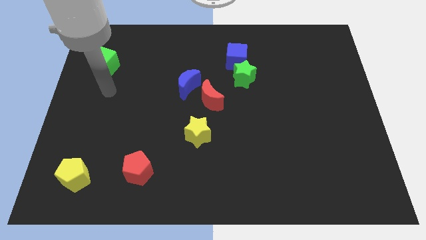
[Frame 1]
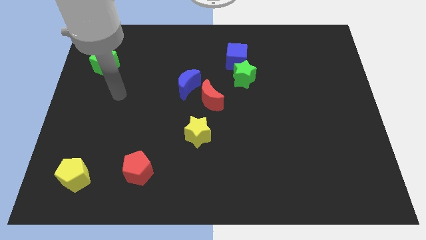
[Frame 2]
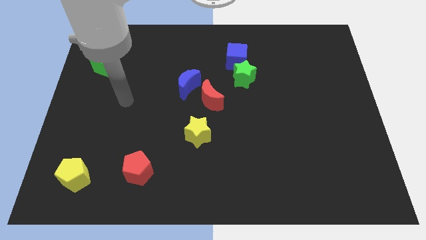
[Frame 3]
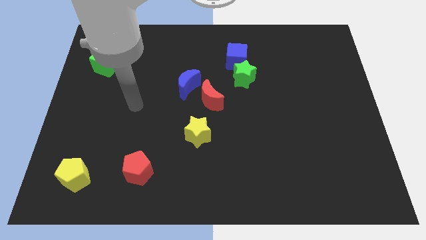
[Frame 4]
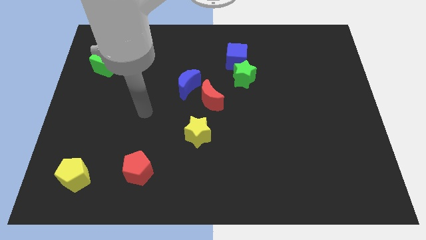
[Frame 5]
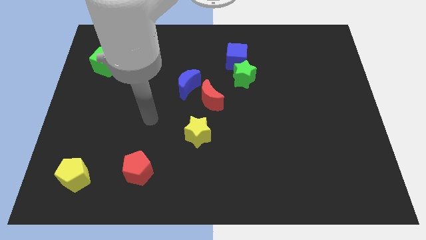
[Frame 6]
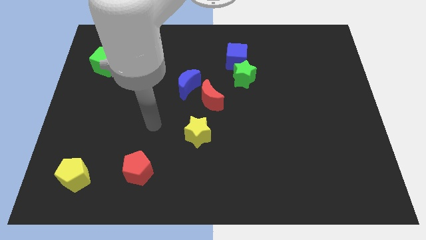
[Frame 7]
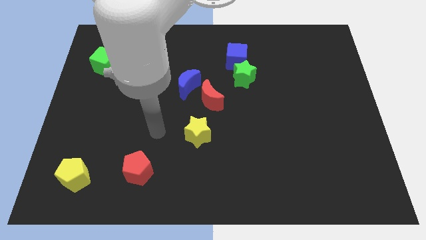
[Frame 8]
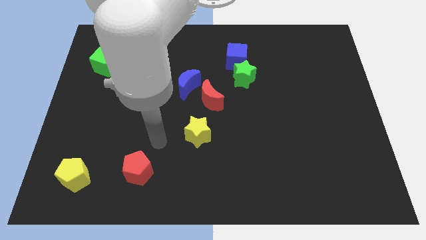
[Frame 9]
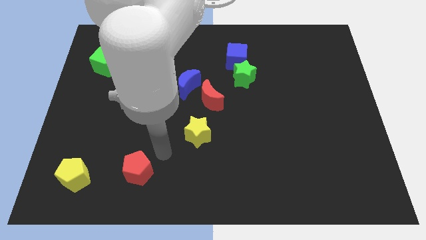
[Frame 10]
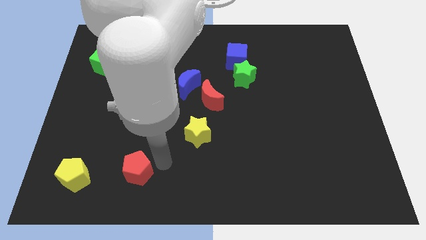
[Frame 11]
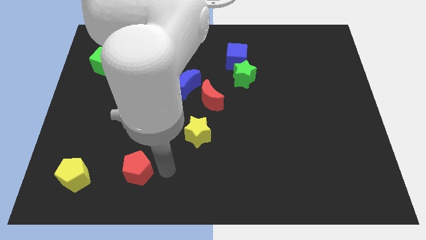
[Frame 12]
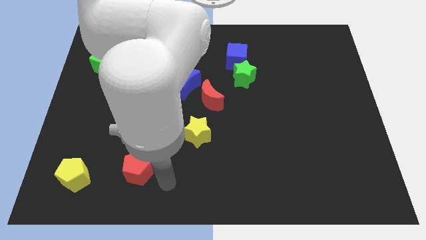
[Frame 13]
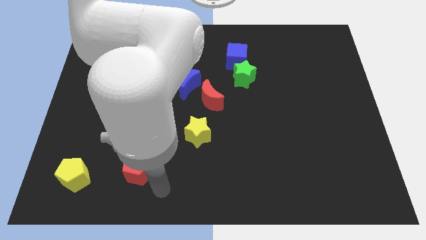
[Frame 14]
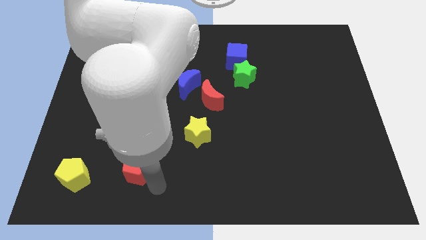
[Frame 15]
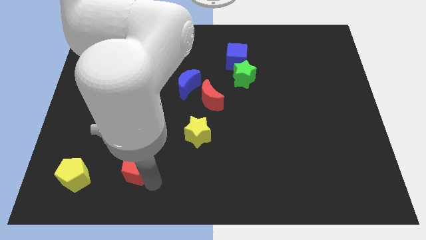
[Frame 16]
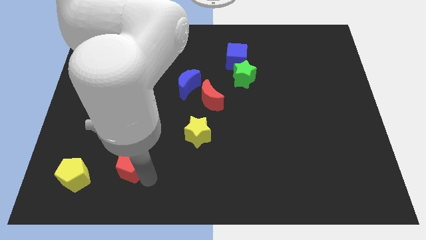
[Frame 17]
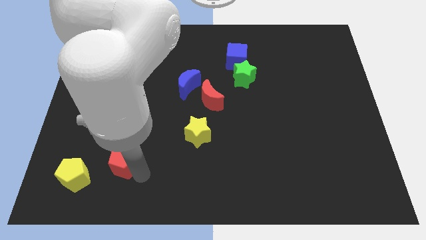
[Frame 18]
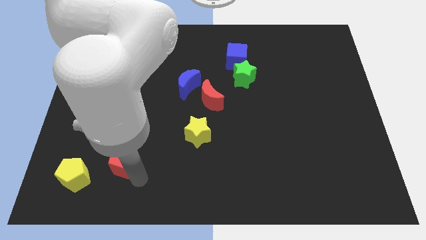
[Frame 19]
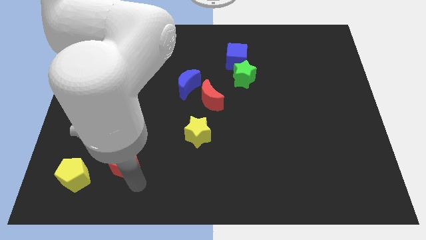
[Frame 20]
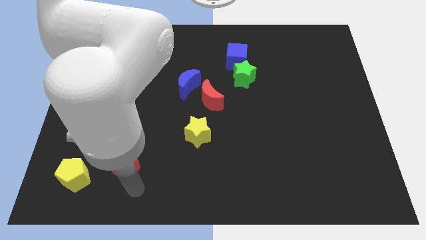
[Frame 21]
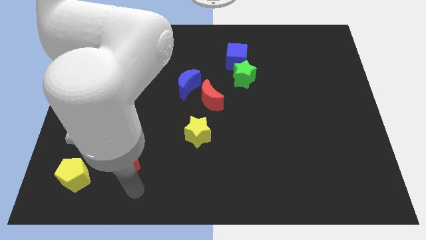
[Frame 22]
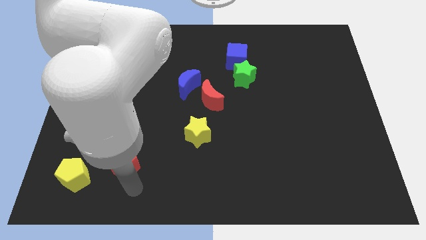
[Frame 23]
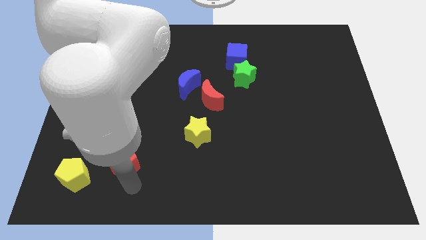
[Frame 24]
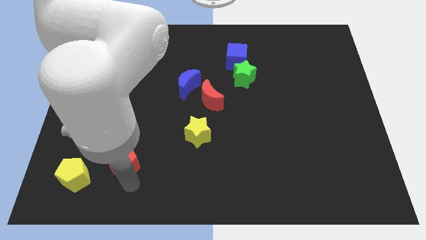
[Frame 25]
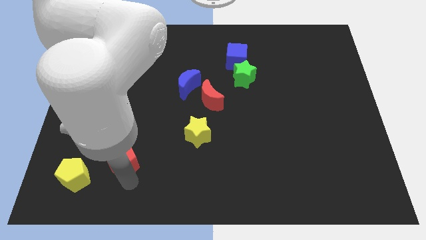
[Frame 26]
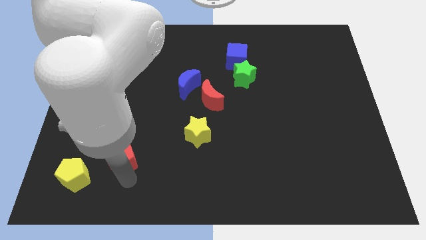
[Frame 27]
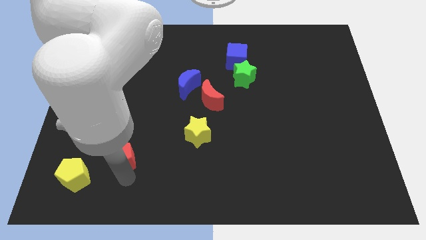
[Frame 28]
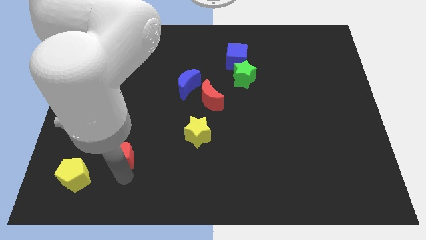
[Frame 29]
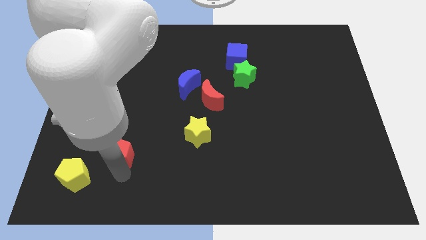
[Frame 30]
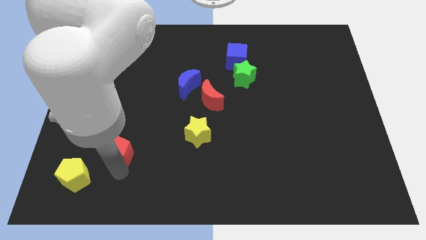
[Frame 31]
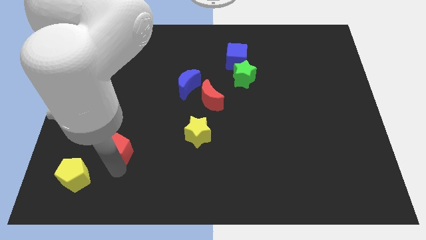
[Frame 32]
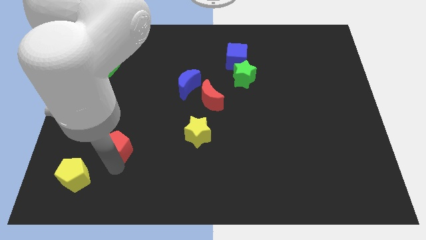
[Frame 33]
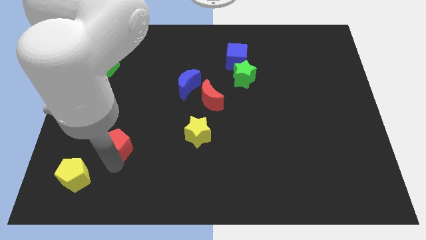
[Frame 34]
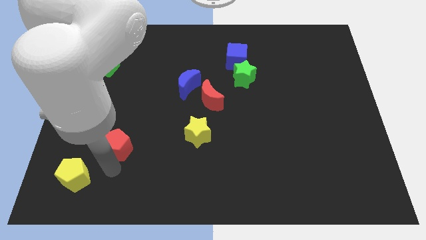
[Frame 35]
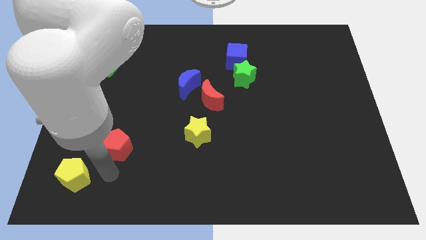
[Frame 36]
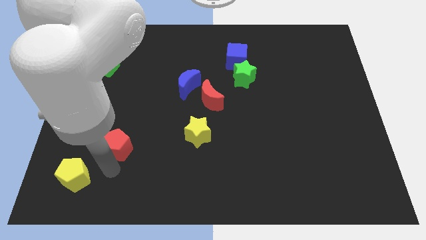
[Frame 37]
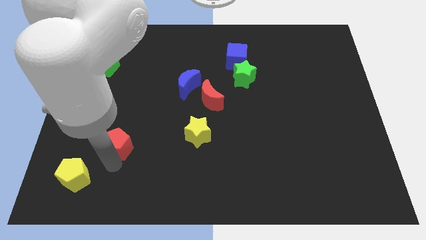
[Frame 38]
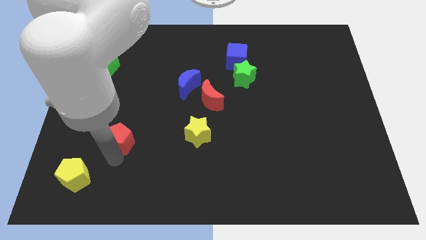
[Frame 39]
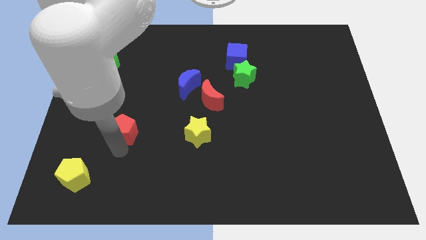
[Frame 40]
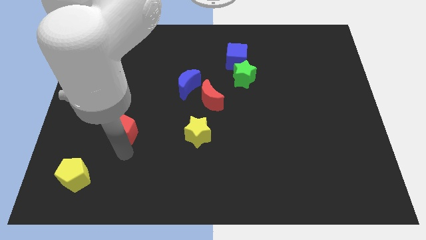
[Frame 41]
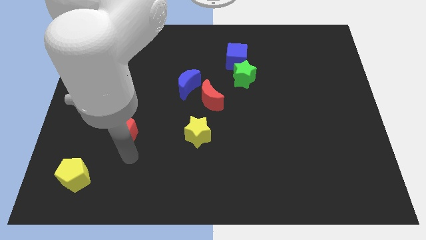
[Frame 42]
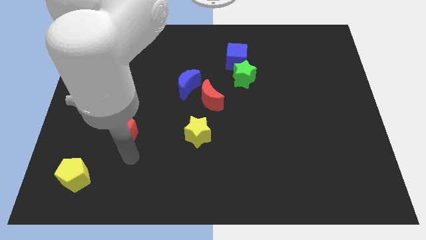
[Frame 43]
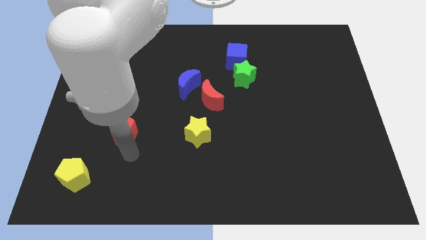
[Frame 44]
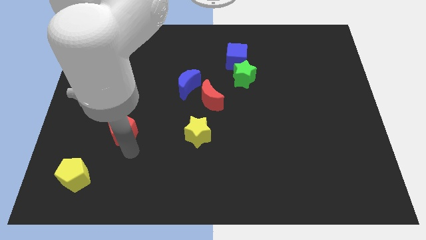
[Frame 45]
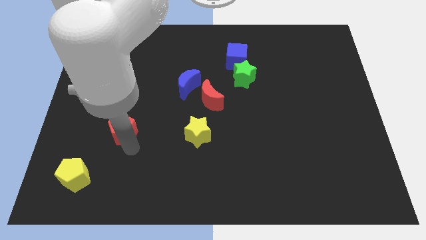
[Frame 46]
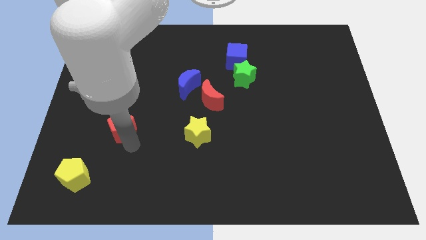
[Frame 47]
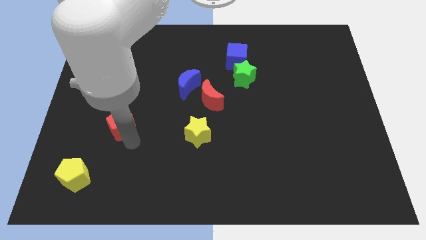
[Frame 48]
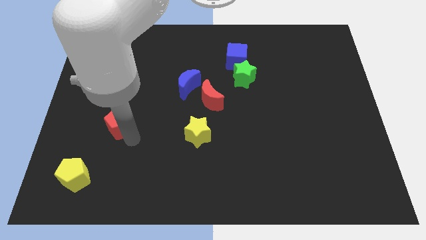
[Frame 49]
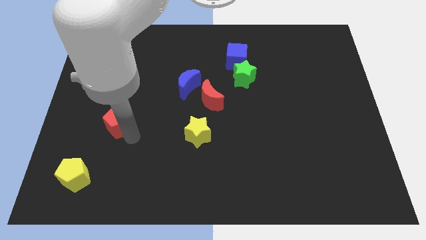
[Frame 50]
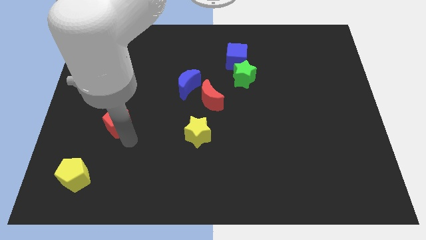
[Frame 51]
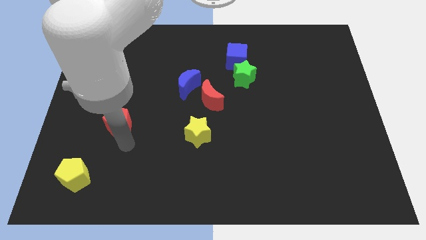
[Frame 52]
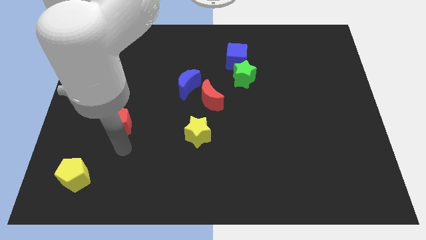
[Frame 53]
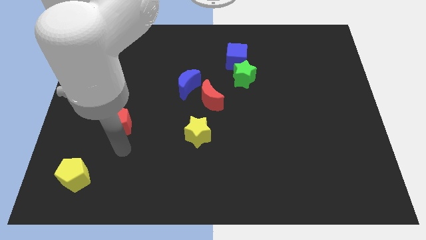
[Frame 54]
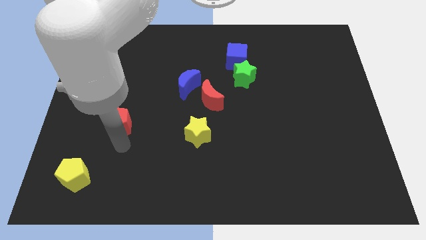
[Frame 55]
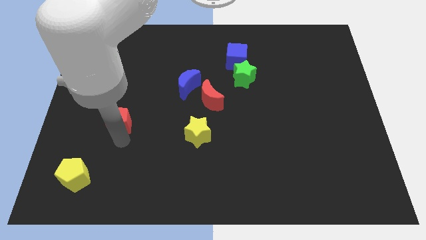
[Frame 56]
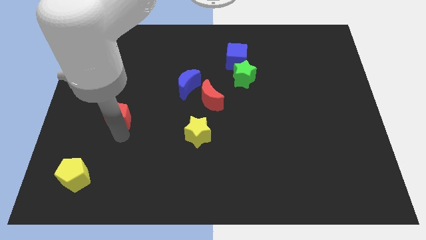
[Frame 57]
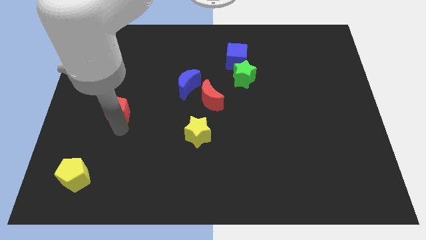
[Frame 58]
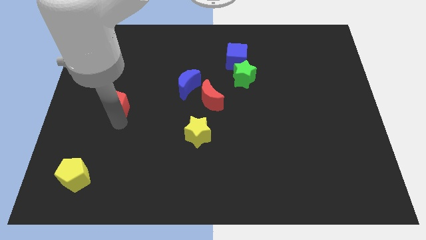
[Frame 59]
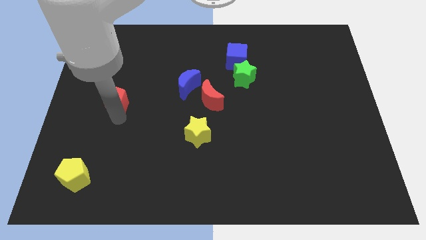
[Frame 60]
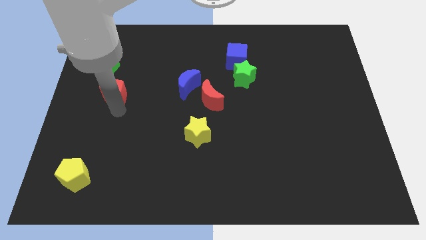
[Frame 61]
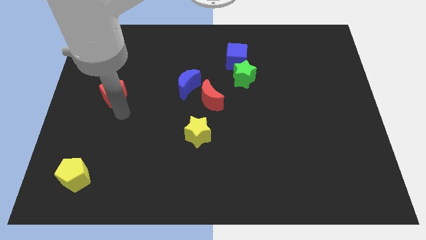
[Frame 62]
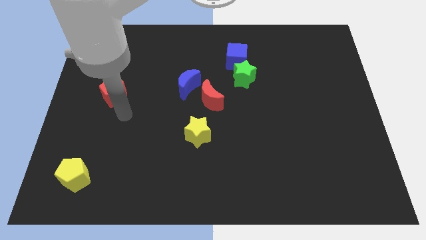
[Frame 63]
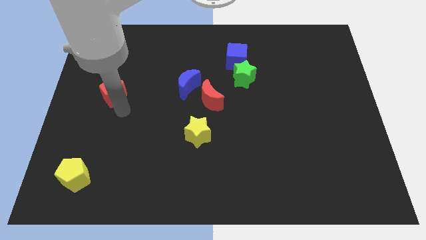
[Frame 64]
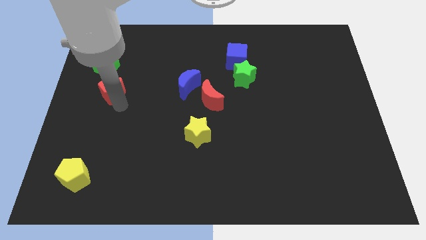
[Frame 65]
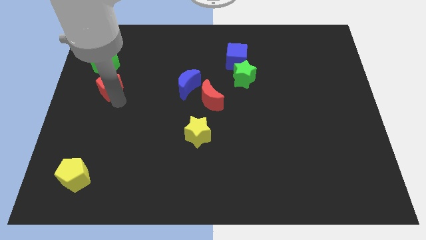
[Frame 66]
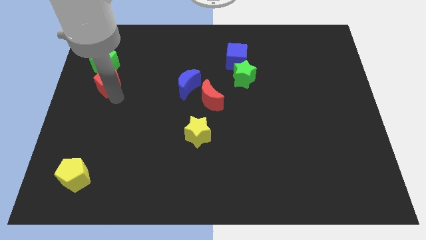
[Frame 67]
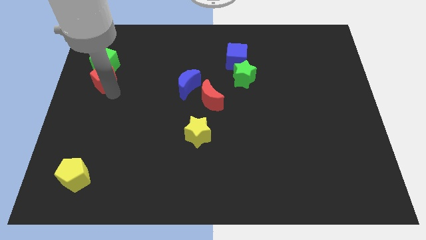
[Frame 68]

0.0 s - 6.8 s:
move the red pentagon next to the green cube

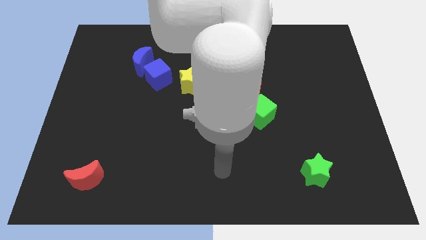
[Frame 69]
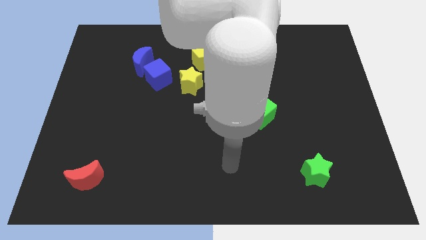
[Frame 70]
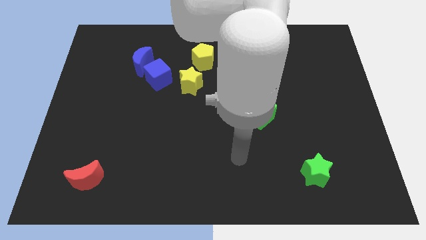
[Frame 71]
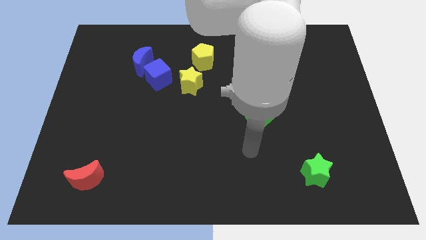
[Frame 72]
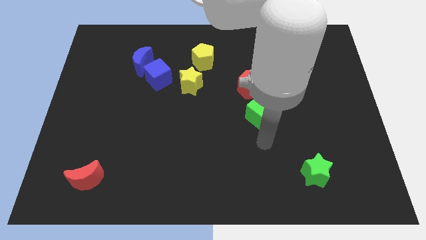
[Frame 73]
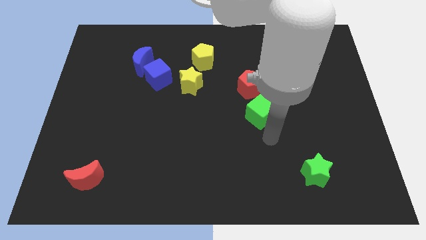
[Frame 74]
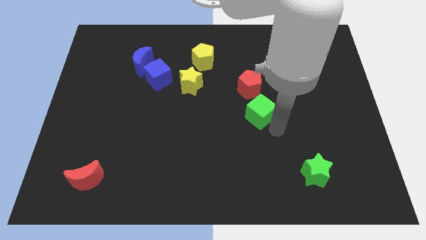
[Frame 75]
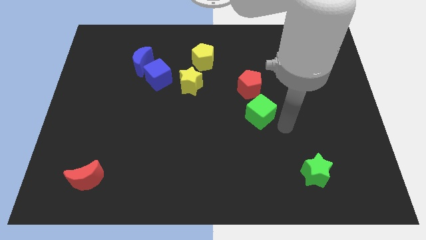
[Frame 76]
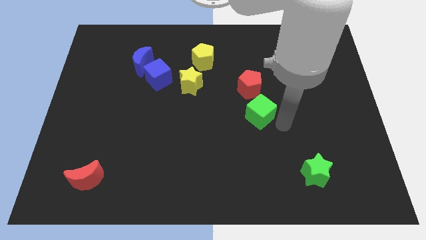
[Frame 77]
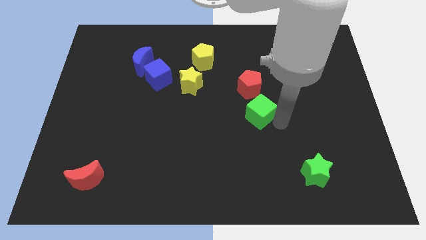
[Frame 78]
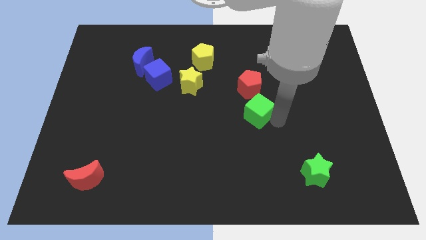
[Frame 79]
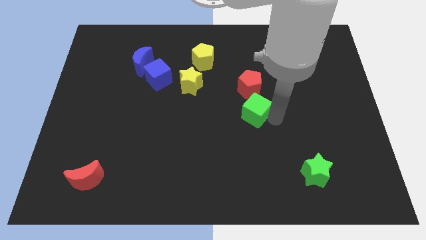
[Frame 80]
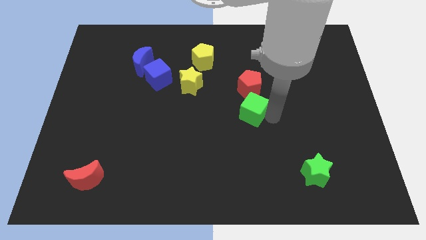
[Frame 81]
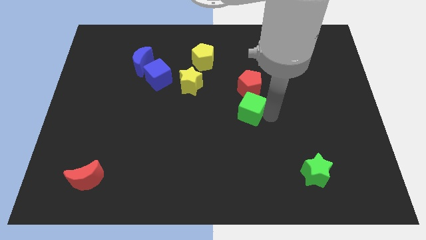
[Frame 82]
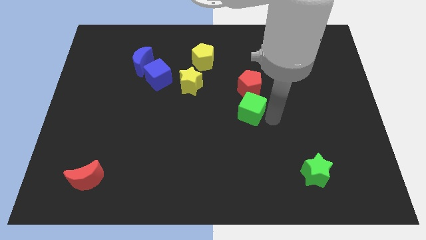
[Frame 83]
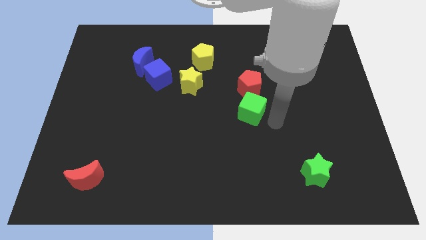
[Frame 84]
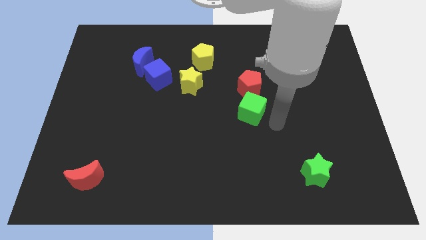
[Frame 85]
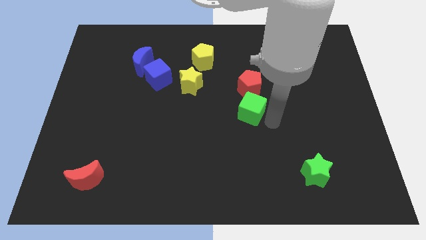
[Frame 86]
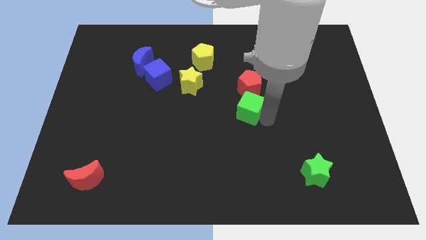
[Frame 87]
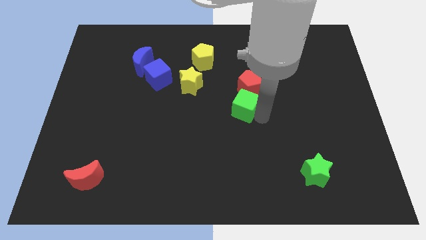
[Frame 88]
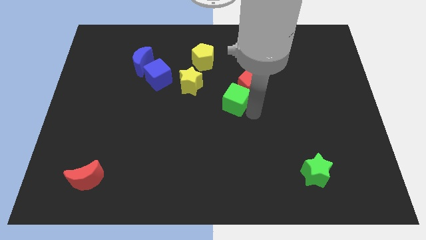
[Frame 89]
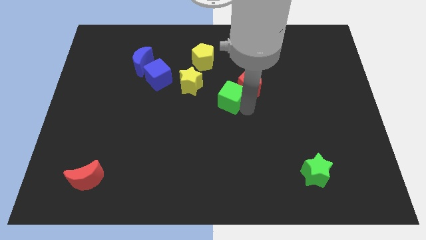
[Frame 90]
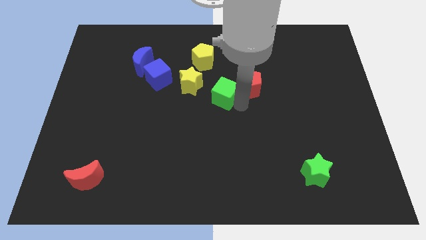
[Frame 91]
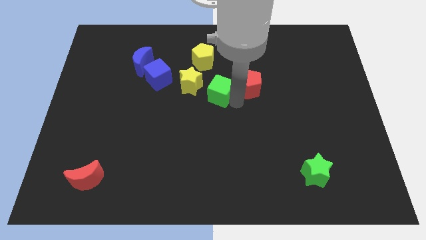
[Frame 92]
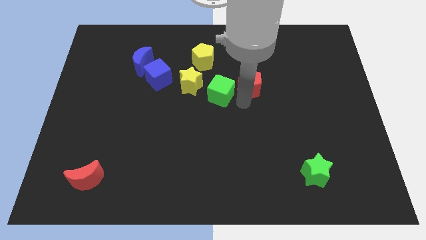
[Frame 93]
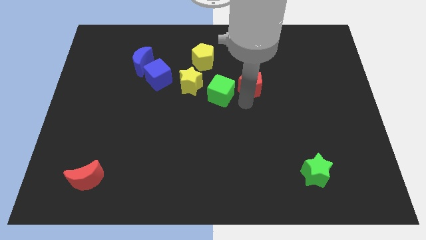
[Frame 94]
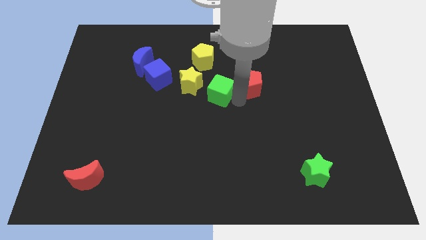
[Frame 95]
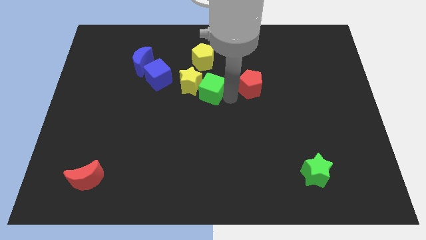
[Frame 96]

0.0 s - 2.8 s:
push the green cube close to the yellow star
